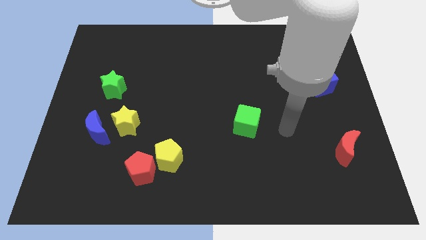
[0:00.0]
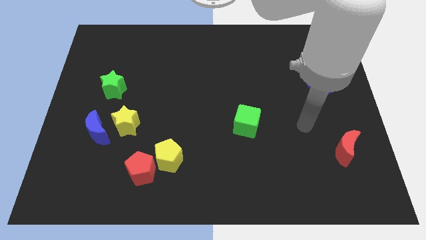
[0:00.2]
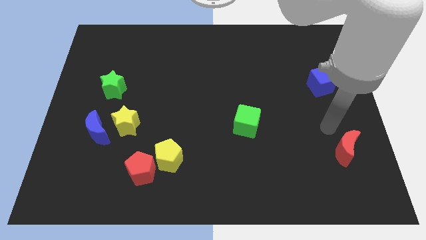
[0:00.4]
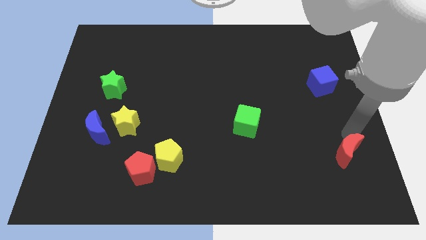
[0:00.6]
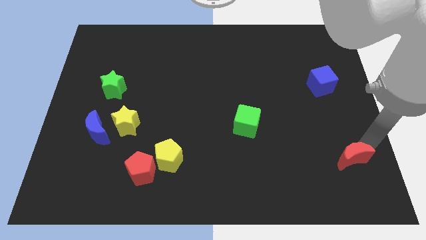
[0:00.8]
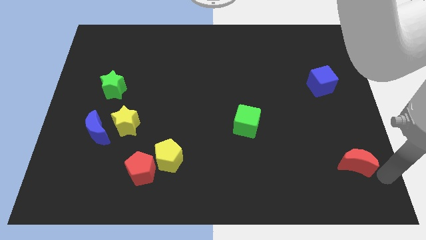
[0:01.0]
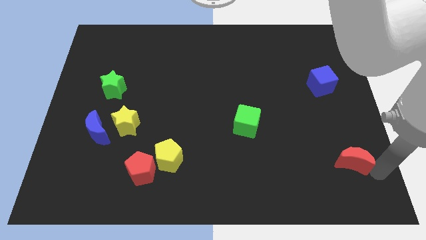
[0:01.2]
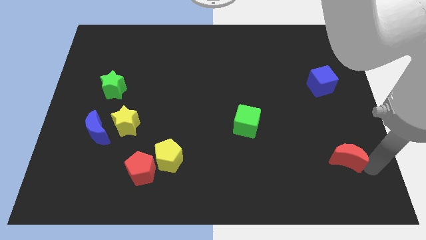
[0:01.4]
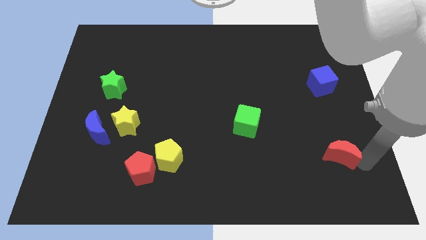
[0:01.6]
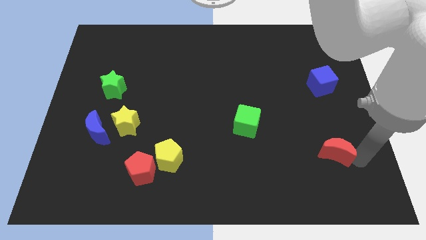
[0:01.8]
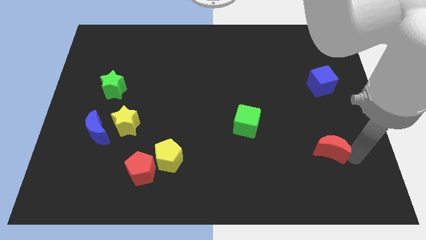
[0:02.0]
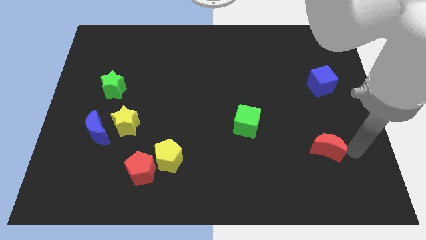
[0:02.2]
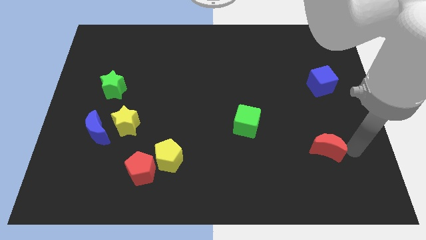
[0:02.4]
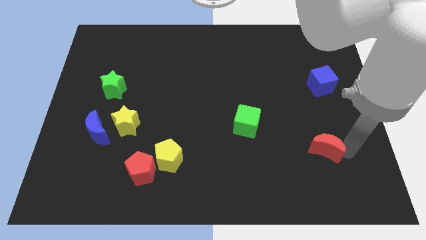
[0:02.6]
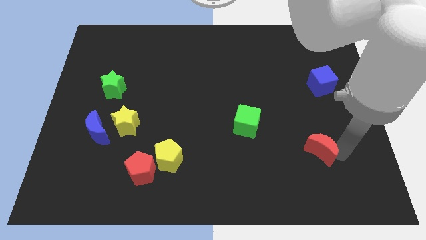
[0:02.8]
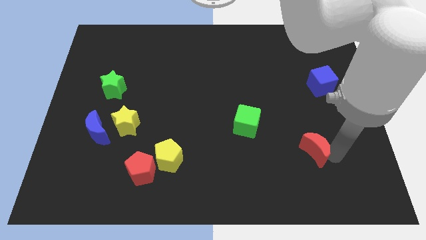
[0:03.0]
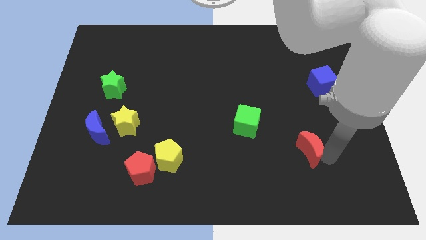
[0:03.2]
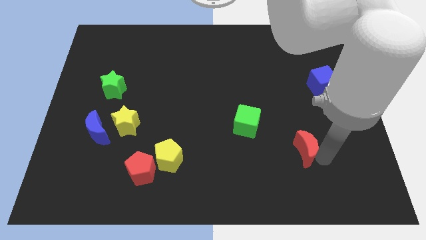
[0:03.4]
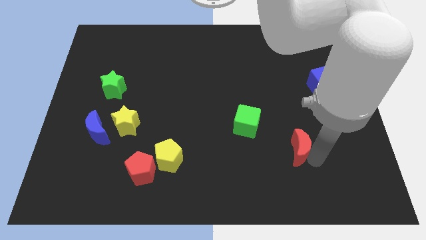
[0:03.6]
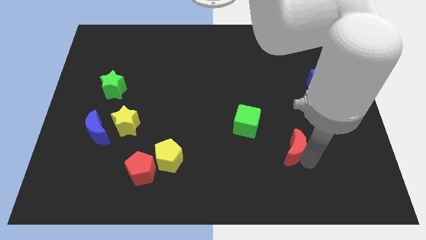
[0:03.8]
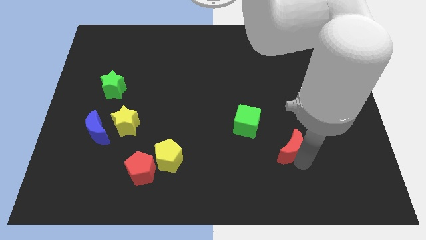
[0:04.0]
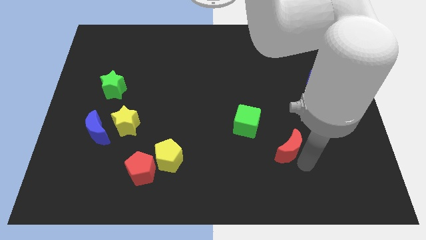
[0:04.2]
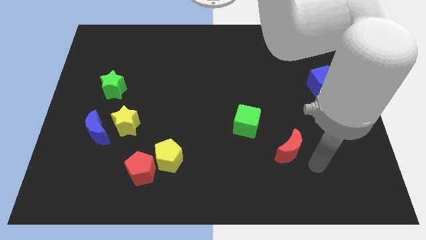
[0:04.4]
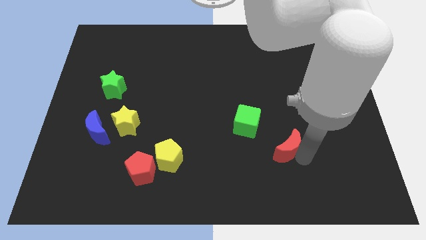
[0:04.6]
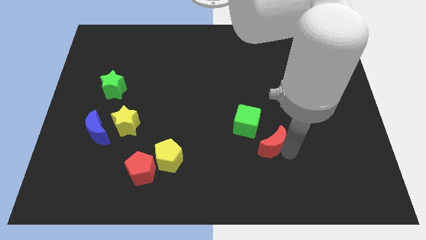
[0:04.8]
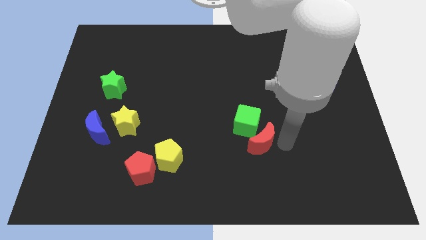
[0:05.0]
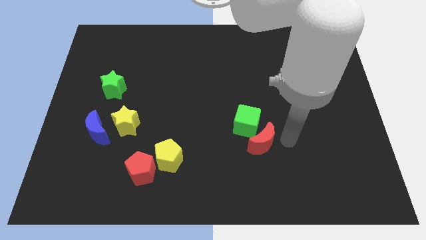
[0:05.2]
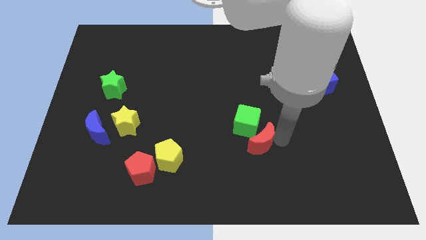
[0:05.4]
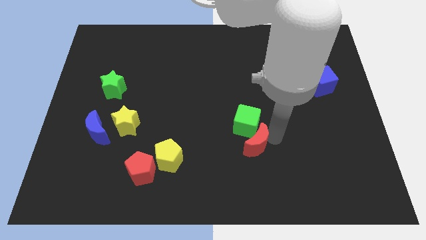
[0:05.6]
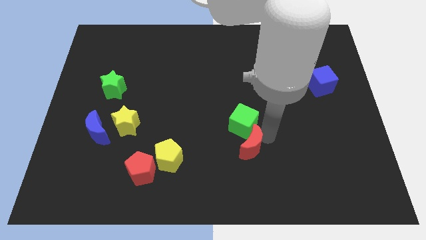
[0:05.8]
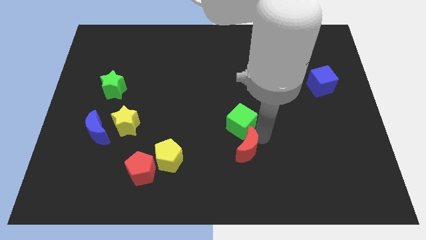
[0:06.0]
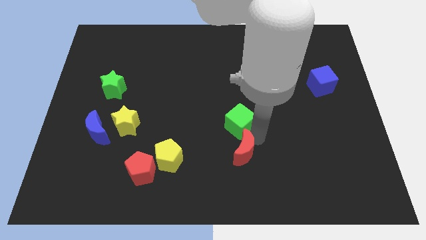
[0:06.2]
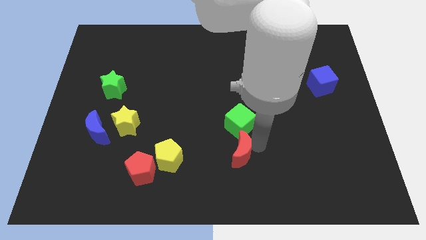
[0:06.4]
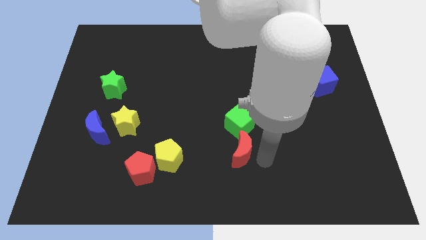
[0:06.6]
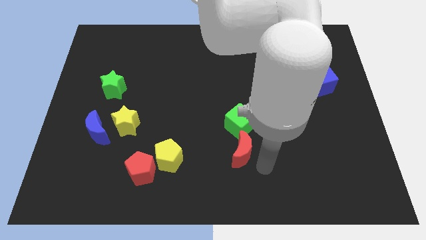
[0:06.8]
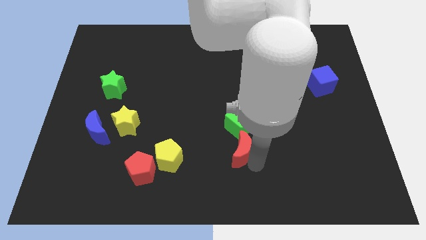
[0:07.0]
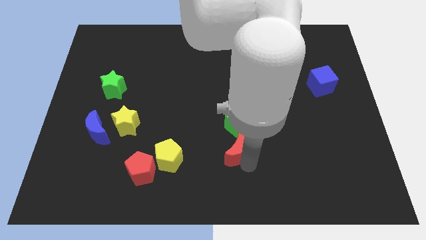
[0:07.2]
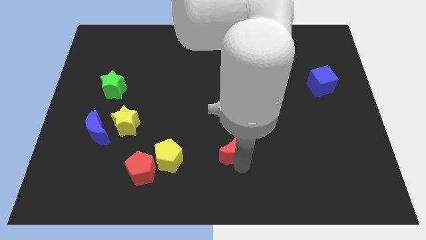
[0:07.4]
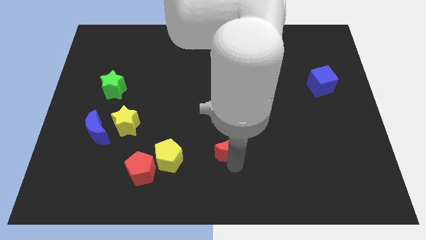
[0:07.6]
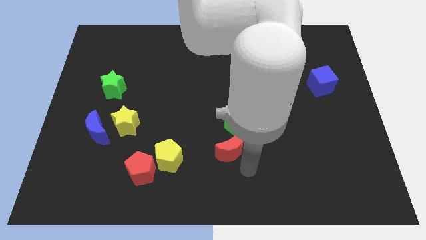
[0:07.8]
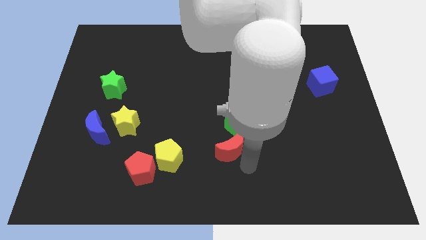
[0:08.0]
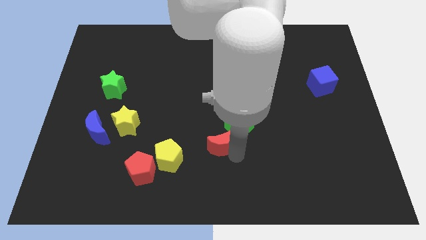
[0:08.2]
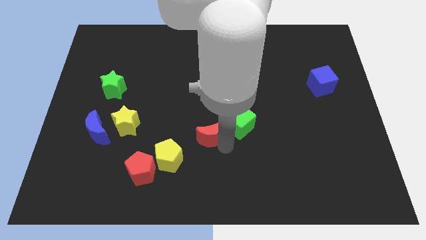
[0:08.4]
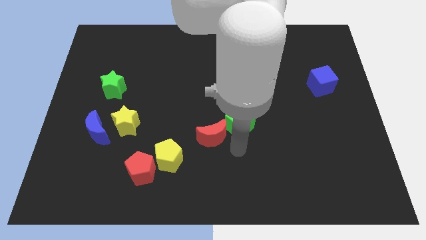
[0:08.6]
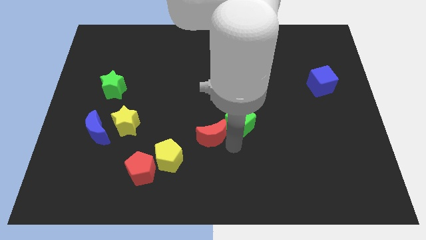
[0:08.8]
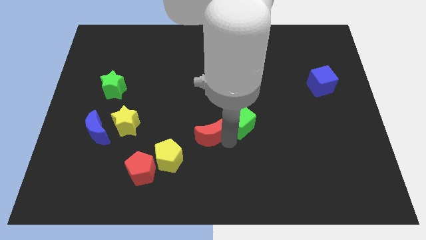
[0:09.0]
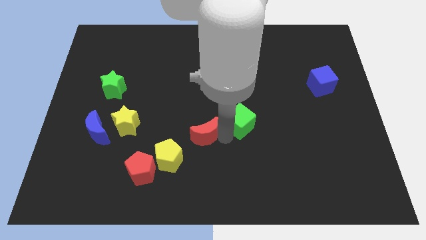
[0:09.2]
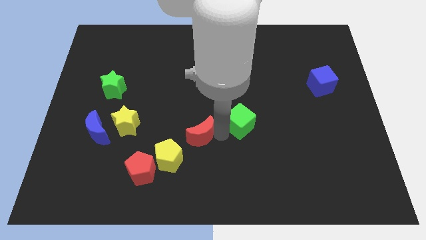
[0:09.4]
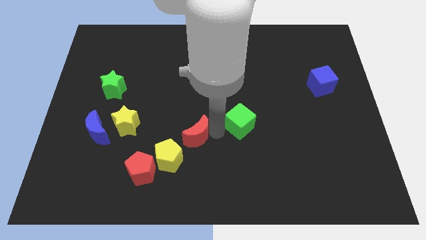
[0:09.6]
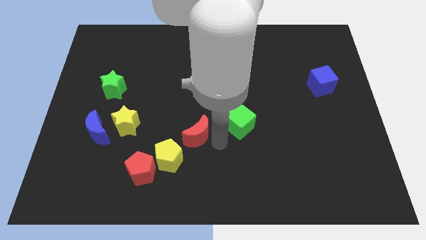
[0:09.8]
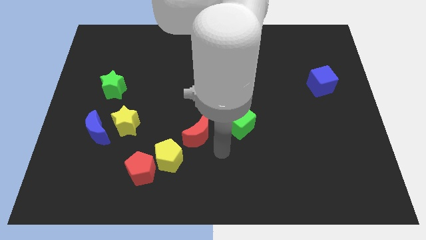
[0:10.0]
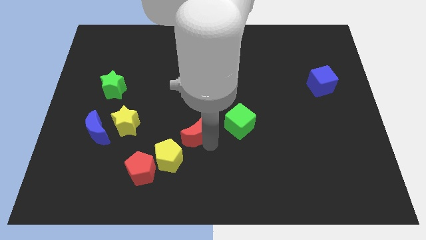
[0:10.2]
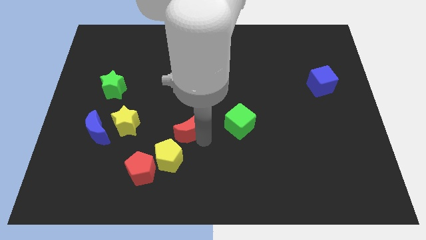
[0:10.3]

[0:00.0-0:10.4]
push the red moon to the top side of the yellow pentagon

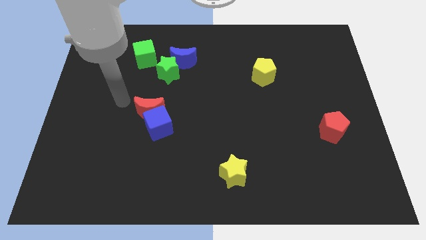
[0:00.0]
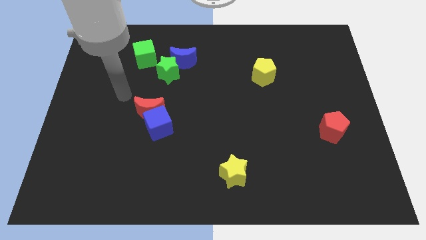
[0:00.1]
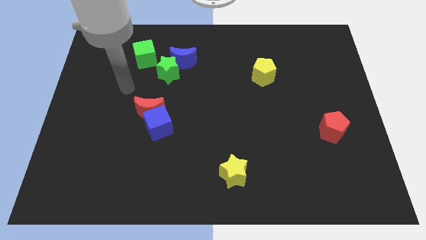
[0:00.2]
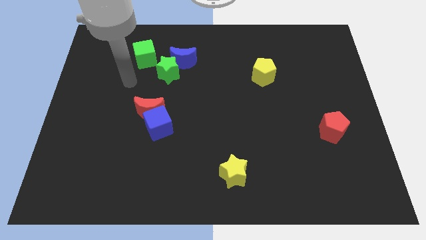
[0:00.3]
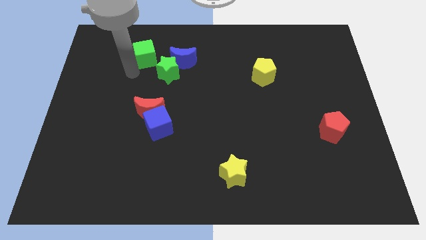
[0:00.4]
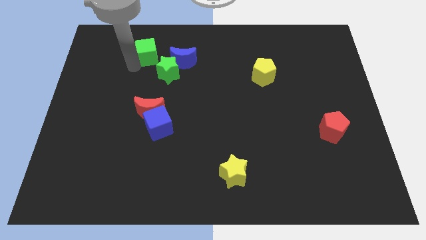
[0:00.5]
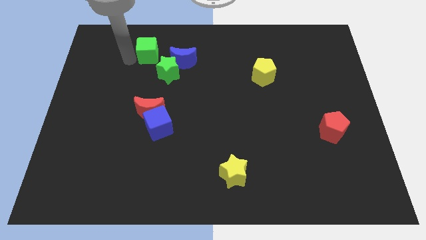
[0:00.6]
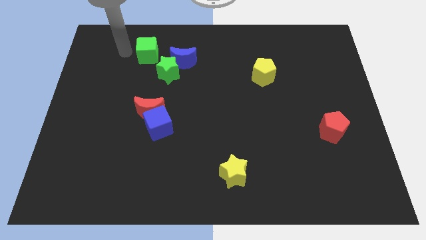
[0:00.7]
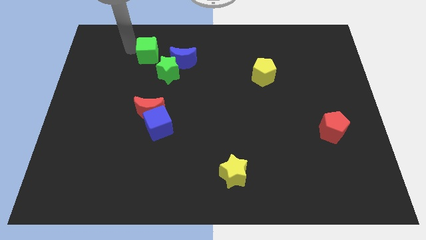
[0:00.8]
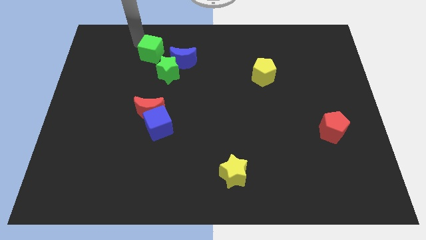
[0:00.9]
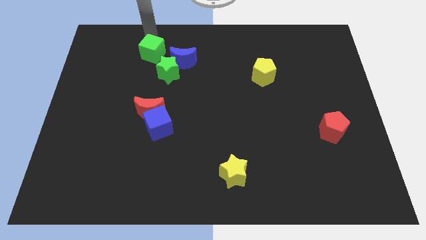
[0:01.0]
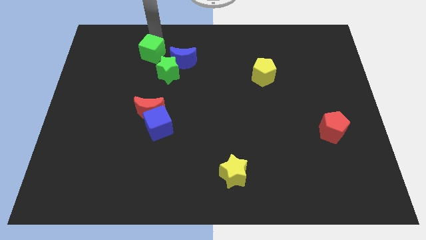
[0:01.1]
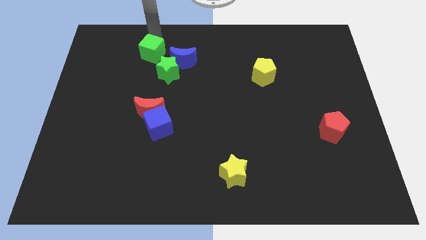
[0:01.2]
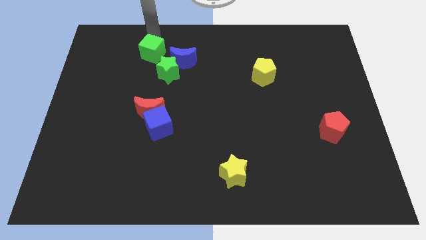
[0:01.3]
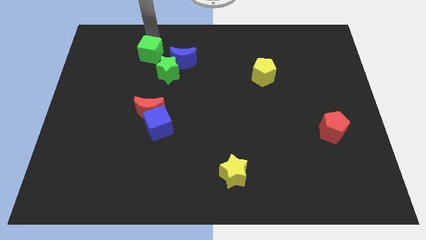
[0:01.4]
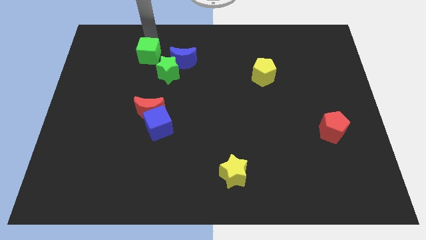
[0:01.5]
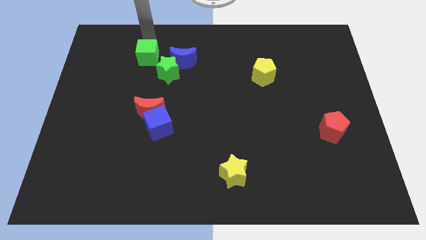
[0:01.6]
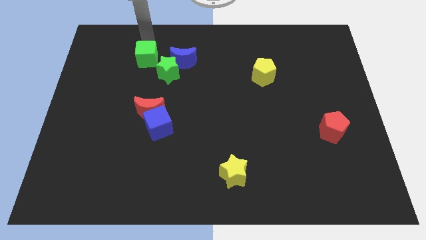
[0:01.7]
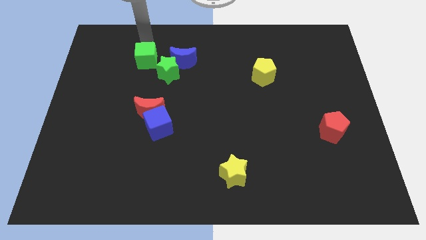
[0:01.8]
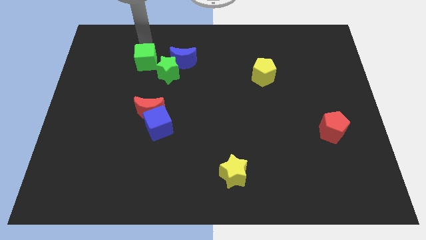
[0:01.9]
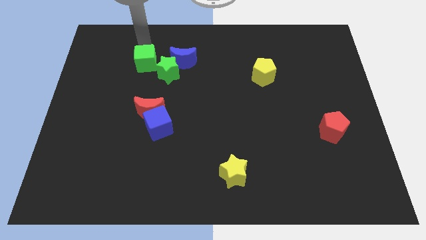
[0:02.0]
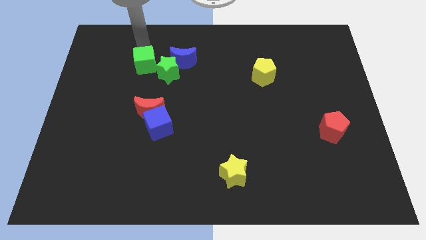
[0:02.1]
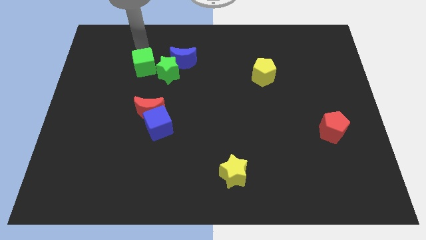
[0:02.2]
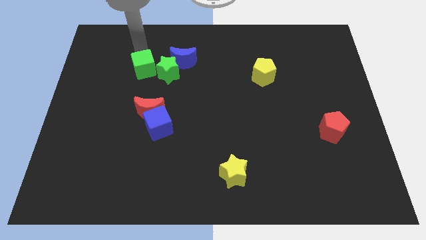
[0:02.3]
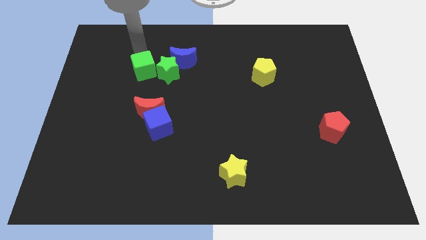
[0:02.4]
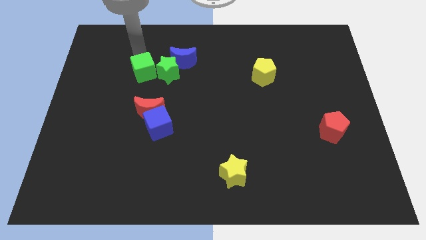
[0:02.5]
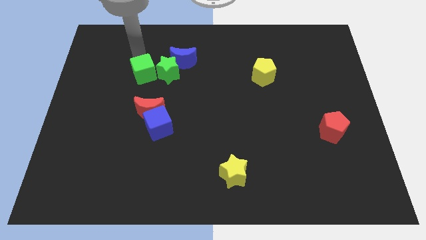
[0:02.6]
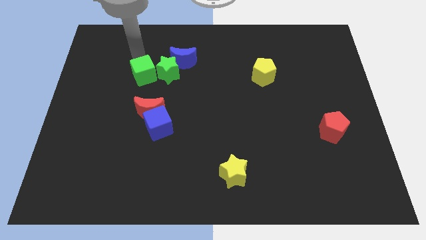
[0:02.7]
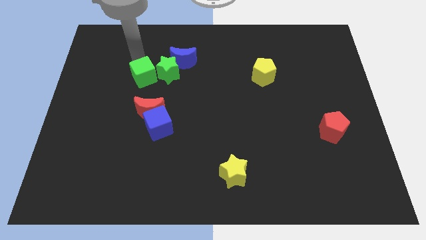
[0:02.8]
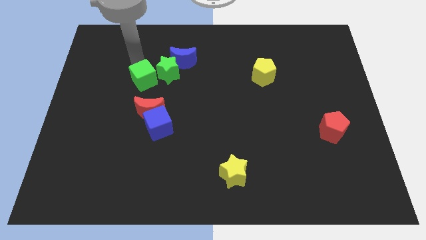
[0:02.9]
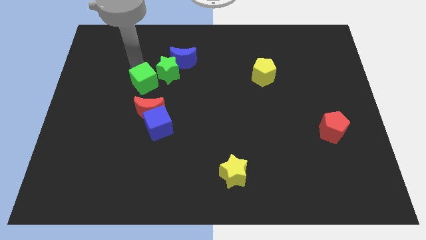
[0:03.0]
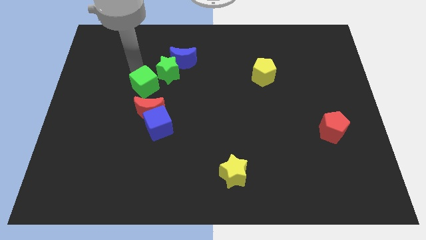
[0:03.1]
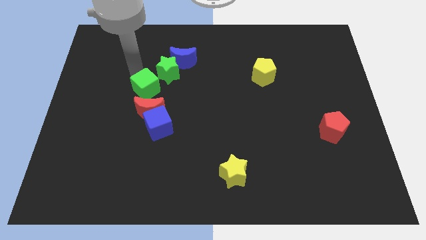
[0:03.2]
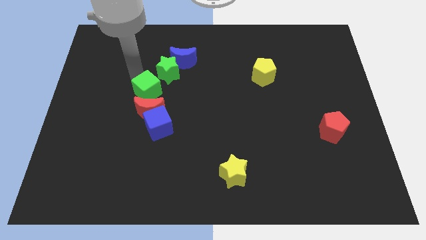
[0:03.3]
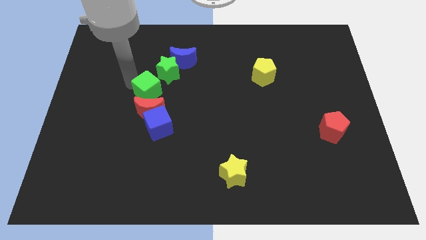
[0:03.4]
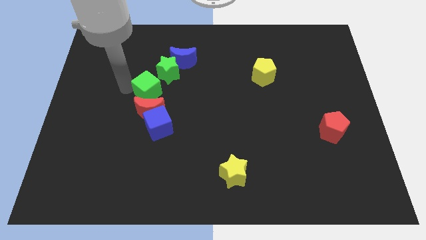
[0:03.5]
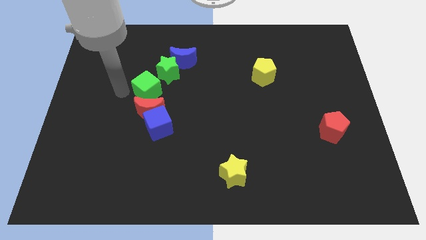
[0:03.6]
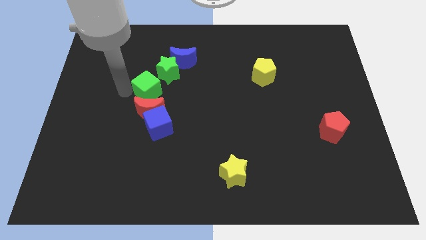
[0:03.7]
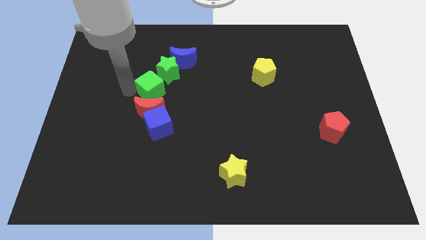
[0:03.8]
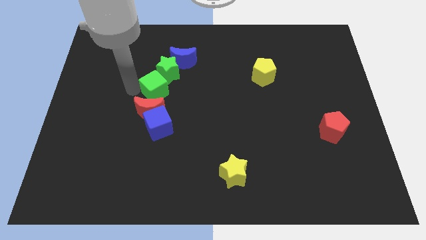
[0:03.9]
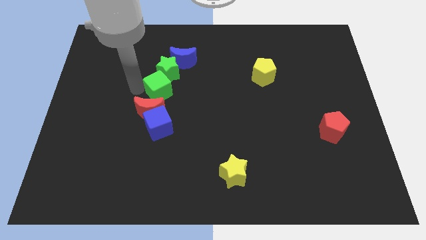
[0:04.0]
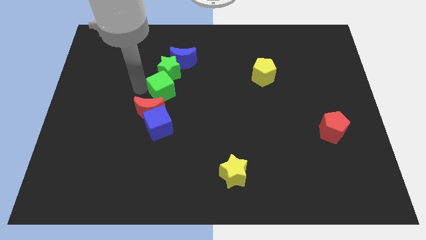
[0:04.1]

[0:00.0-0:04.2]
move the green cube diagonally down and to the right of the green star
